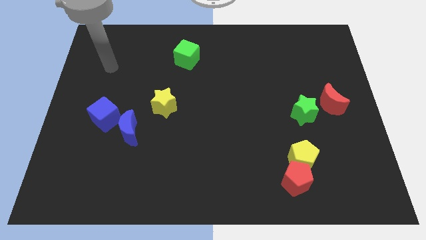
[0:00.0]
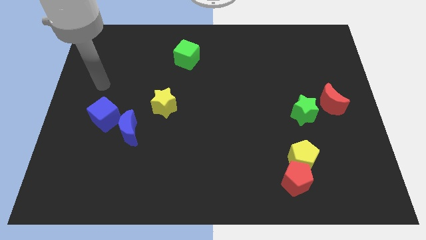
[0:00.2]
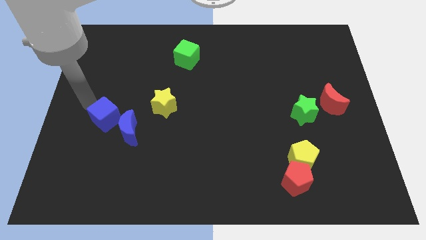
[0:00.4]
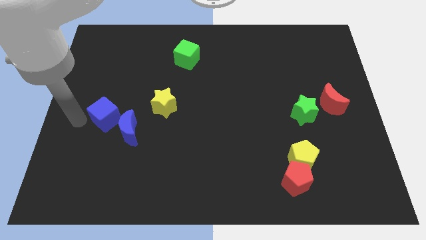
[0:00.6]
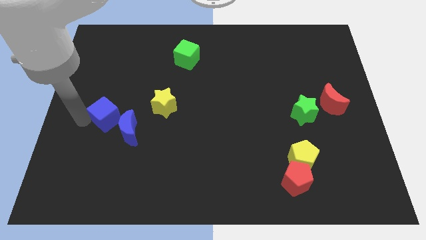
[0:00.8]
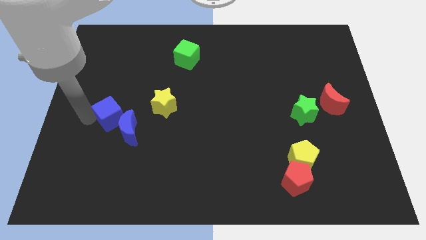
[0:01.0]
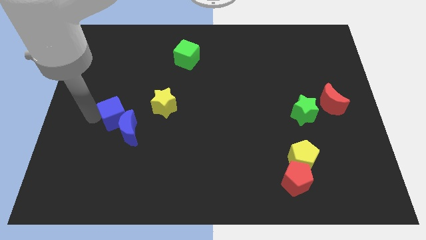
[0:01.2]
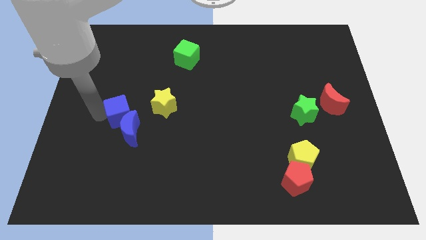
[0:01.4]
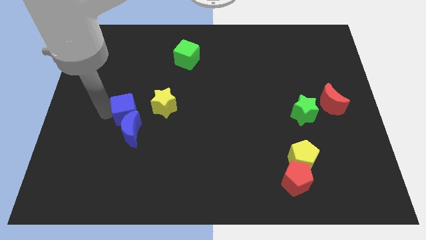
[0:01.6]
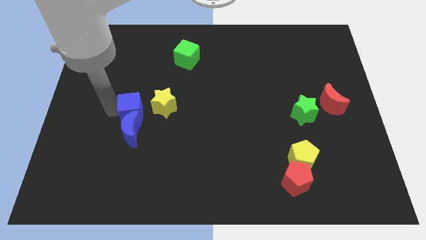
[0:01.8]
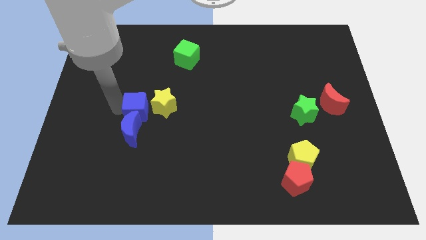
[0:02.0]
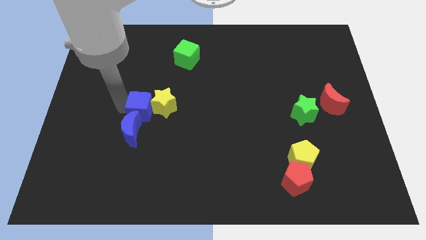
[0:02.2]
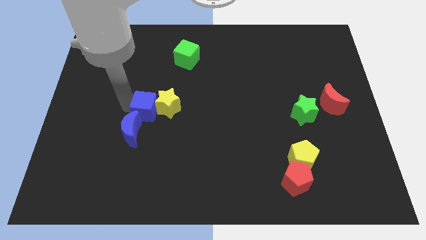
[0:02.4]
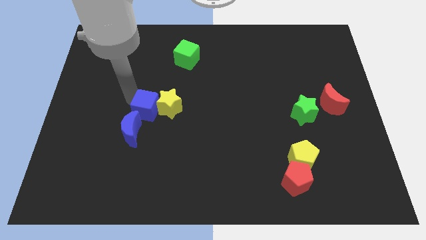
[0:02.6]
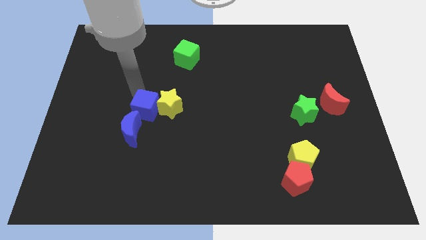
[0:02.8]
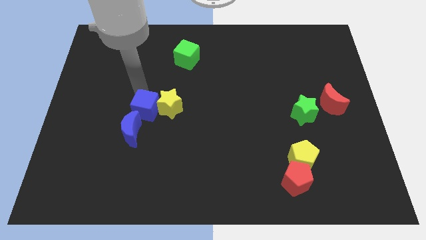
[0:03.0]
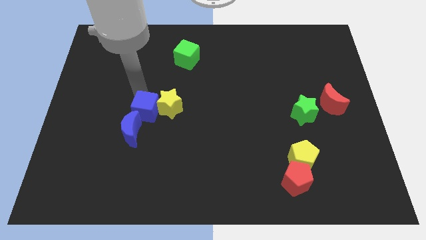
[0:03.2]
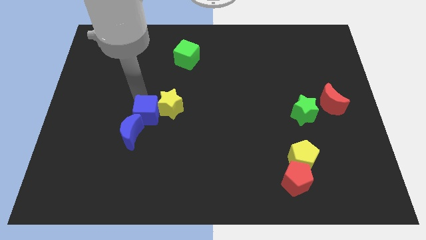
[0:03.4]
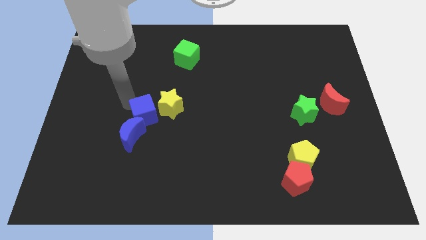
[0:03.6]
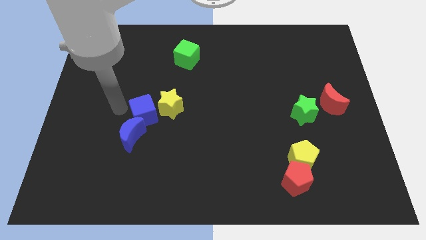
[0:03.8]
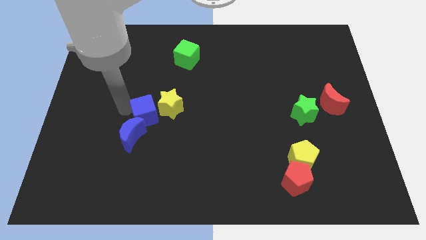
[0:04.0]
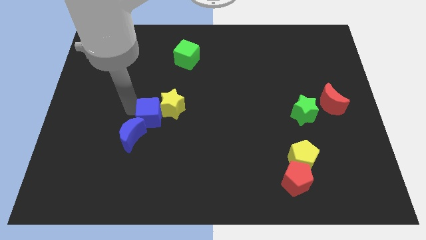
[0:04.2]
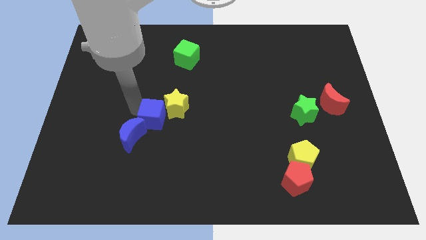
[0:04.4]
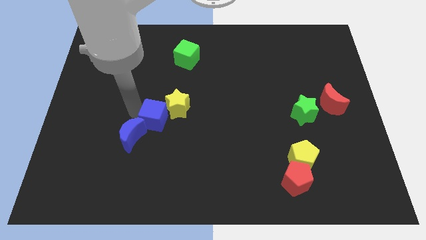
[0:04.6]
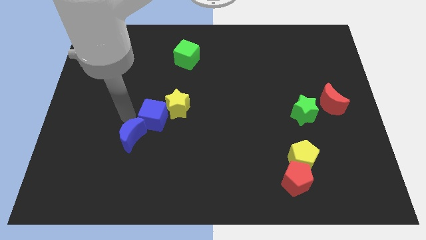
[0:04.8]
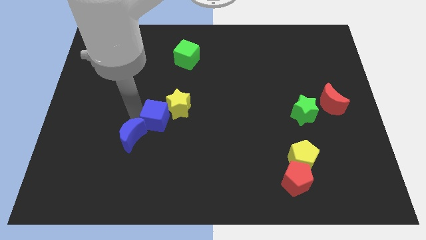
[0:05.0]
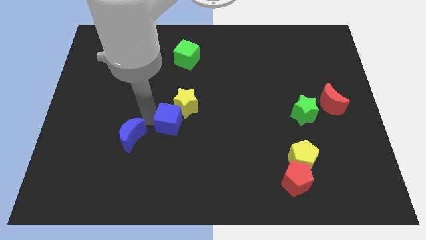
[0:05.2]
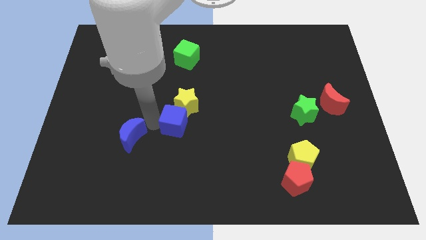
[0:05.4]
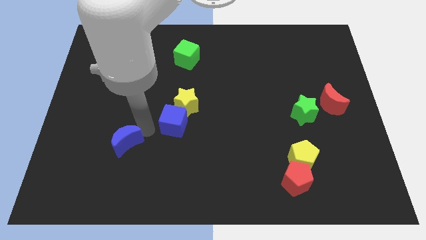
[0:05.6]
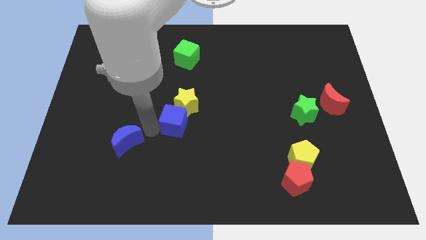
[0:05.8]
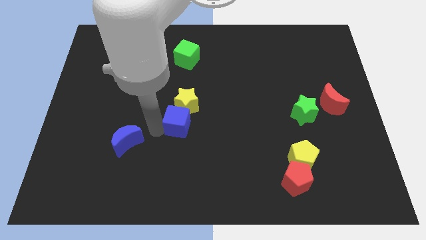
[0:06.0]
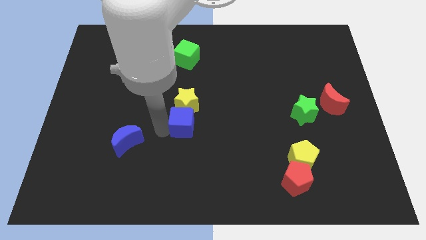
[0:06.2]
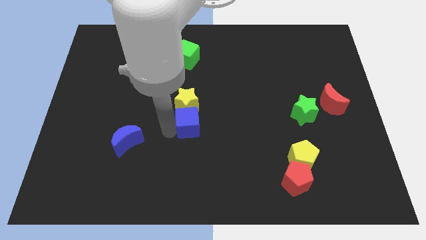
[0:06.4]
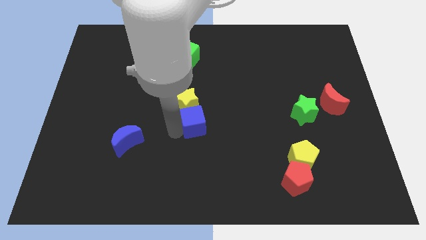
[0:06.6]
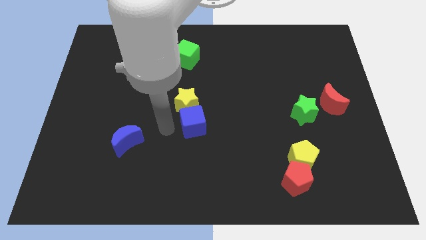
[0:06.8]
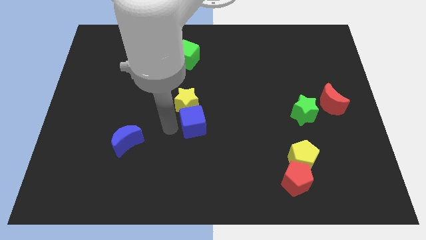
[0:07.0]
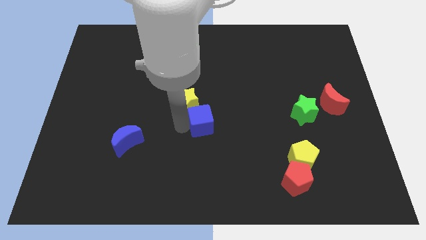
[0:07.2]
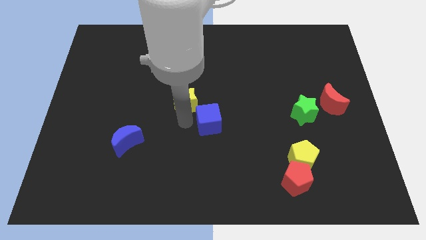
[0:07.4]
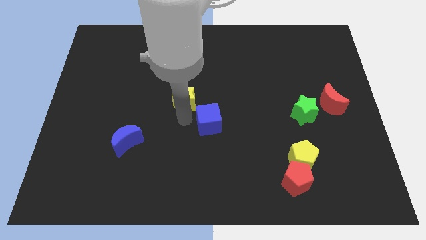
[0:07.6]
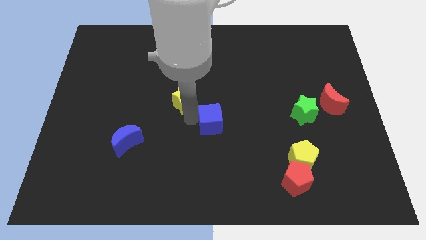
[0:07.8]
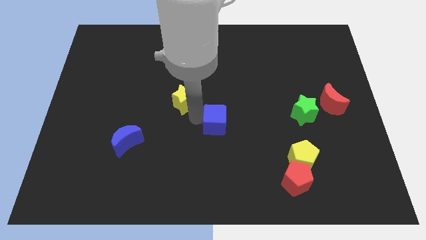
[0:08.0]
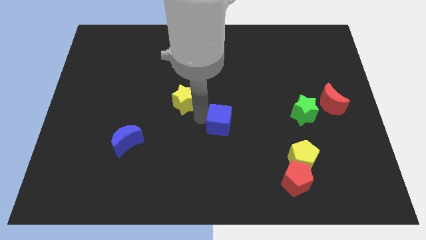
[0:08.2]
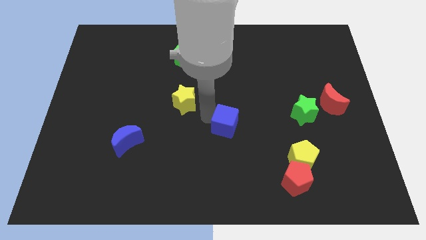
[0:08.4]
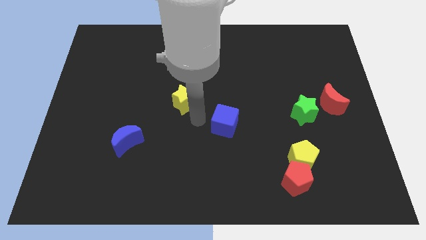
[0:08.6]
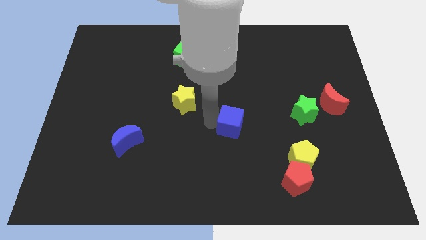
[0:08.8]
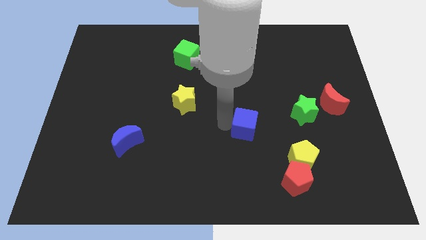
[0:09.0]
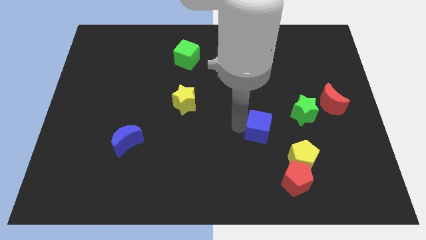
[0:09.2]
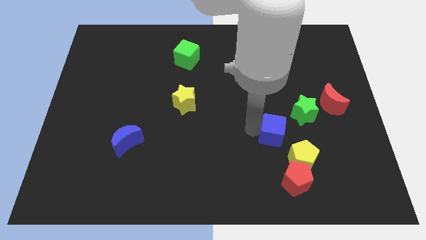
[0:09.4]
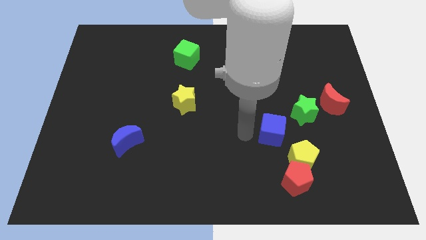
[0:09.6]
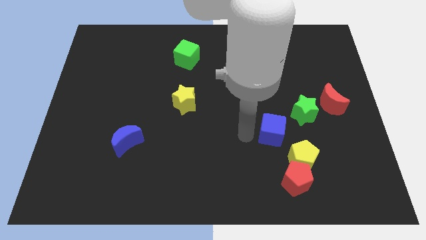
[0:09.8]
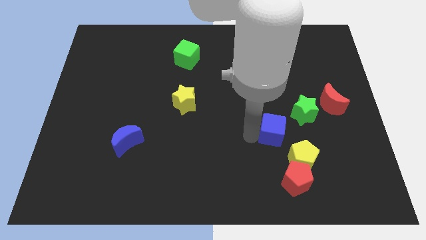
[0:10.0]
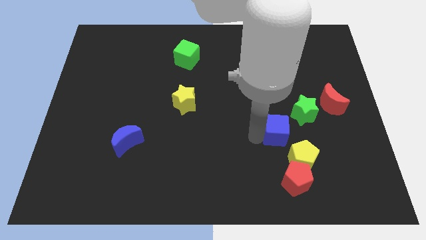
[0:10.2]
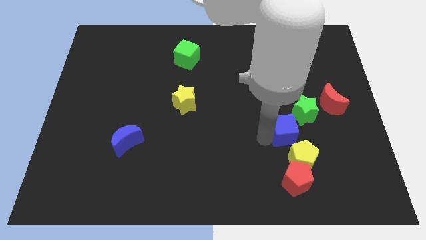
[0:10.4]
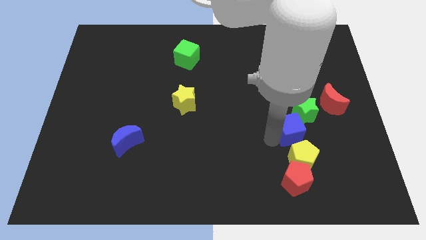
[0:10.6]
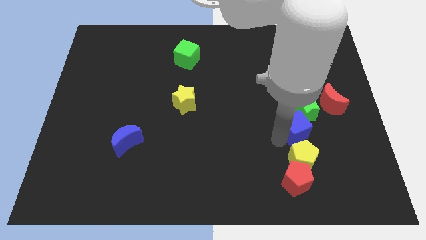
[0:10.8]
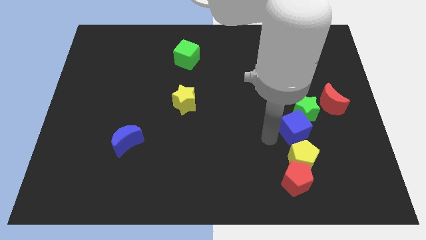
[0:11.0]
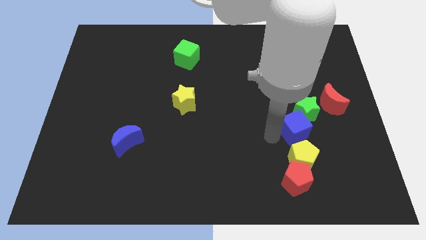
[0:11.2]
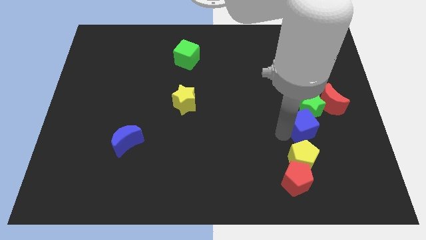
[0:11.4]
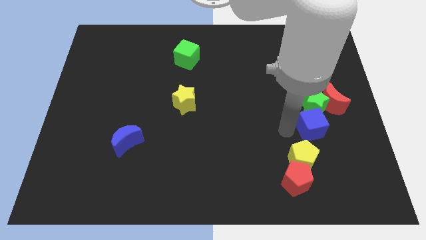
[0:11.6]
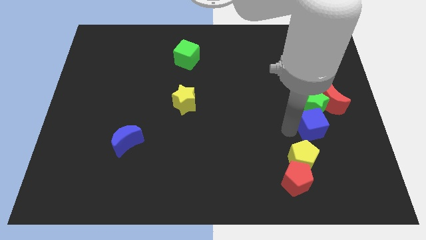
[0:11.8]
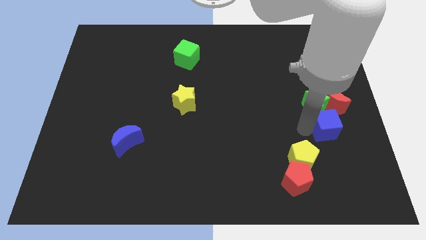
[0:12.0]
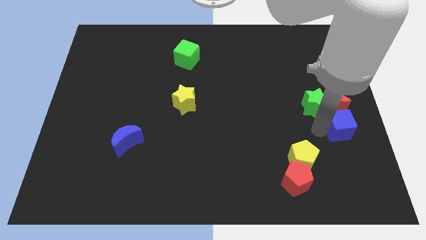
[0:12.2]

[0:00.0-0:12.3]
slide the blue cube to the right side of the board
